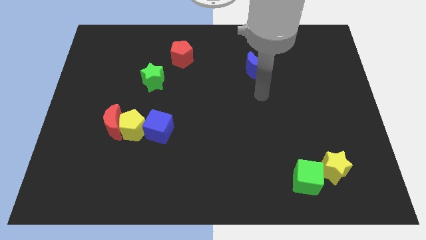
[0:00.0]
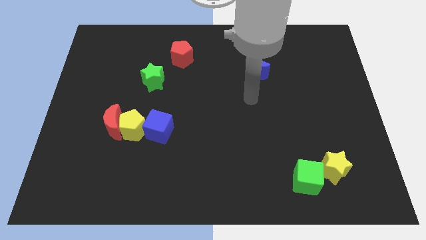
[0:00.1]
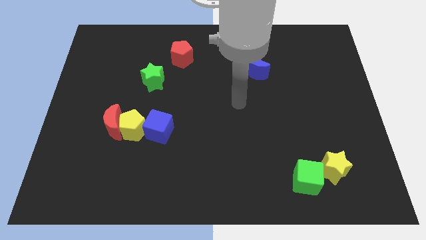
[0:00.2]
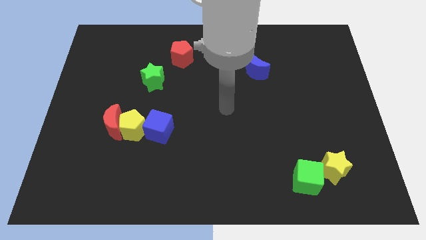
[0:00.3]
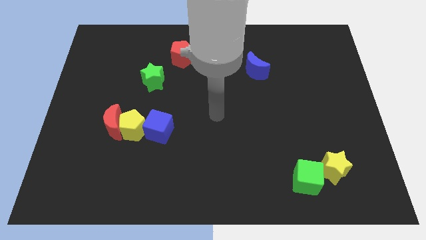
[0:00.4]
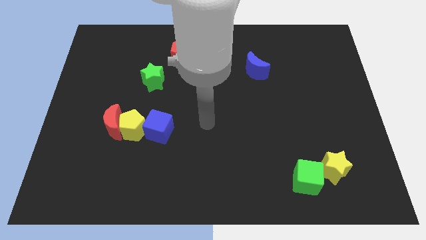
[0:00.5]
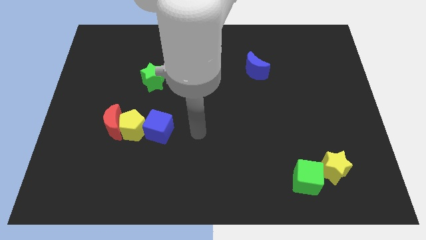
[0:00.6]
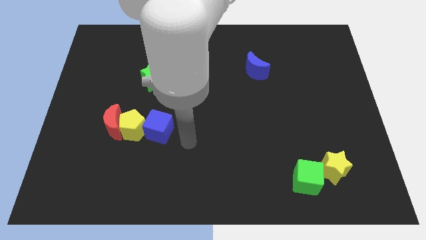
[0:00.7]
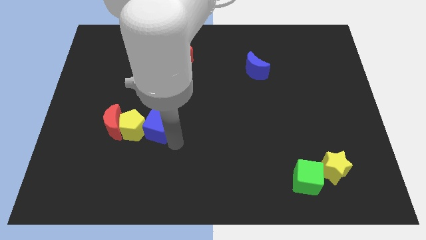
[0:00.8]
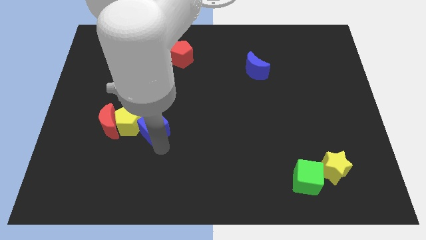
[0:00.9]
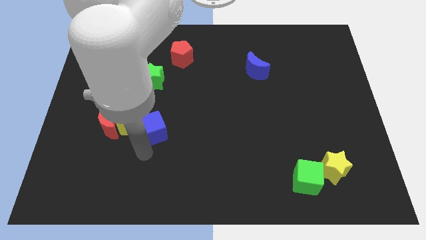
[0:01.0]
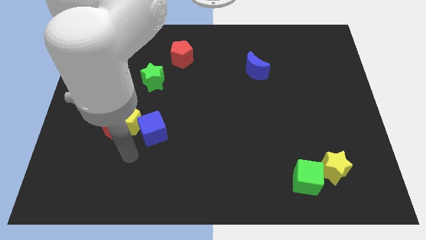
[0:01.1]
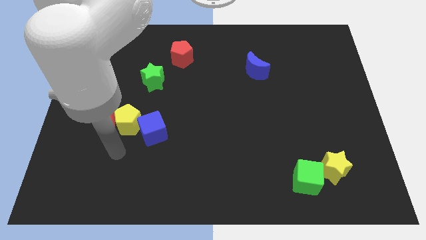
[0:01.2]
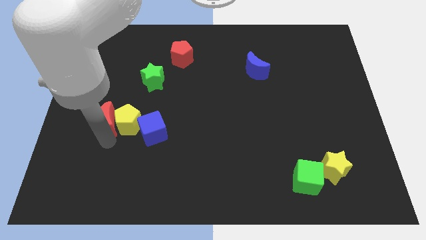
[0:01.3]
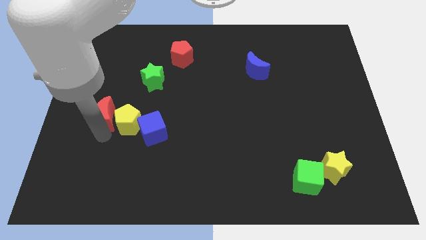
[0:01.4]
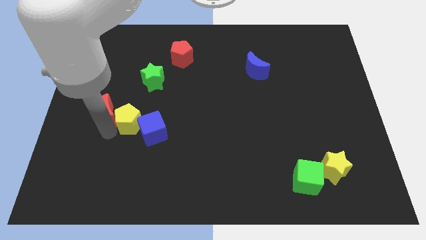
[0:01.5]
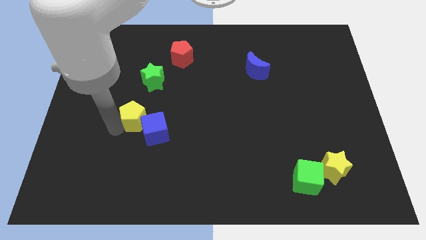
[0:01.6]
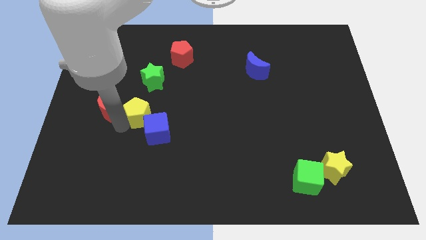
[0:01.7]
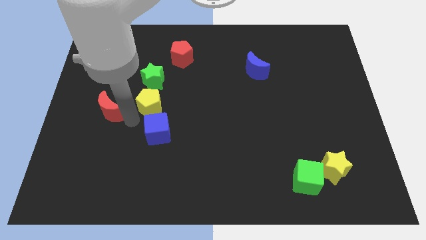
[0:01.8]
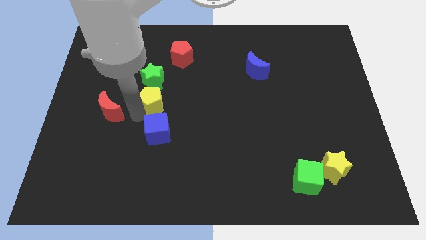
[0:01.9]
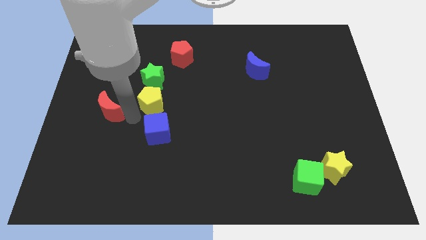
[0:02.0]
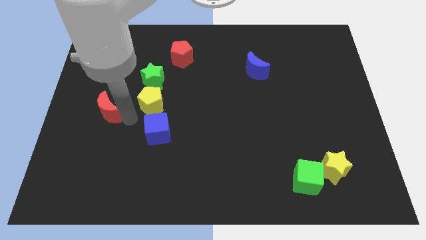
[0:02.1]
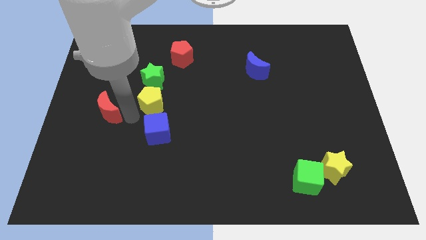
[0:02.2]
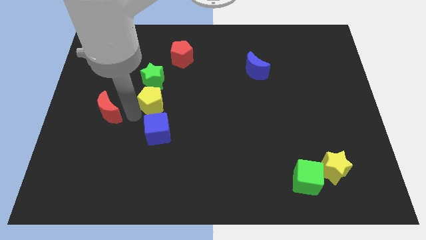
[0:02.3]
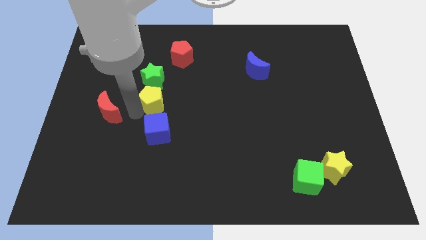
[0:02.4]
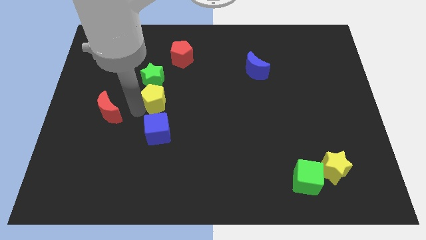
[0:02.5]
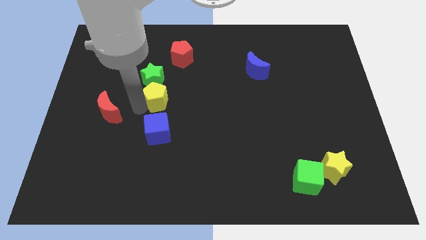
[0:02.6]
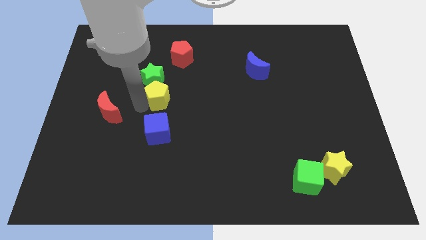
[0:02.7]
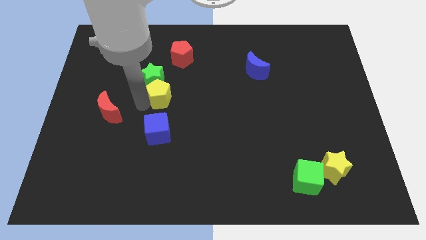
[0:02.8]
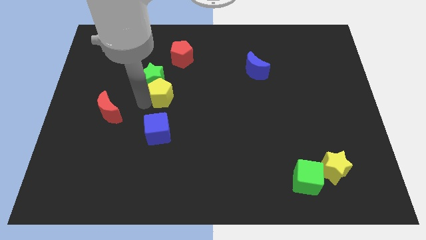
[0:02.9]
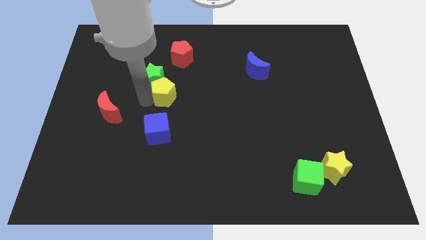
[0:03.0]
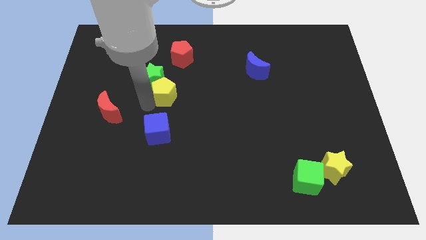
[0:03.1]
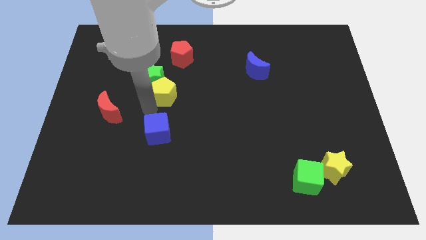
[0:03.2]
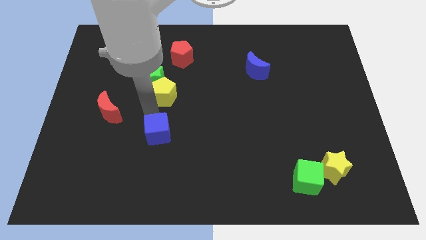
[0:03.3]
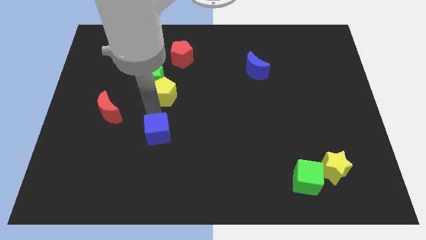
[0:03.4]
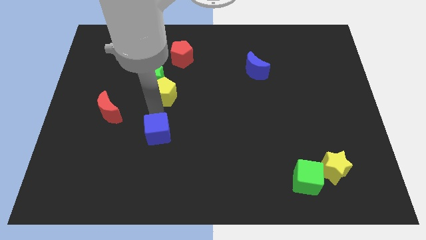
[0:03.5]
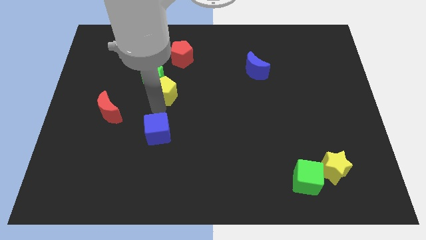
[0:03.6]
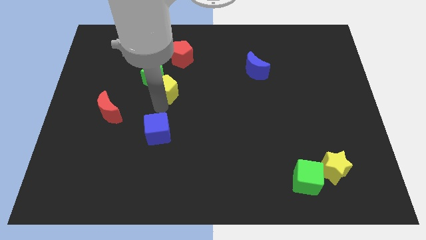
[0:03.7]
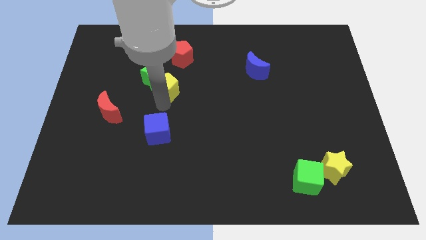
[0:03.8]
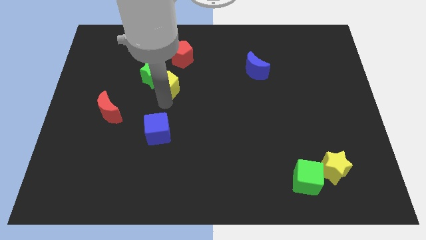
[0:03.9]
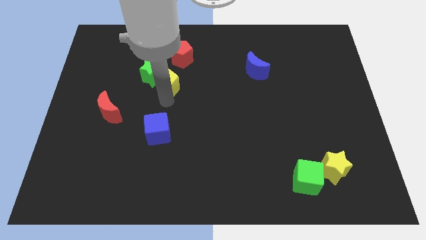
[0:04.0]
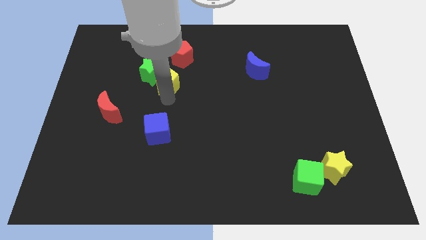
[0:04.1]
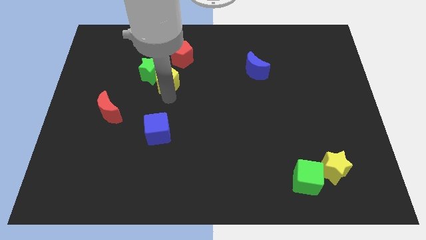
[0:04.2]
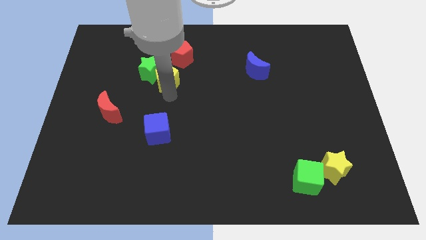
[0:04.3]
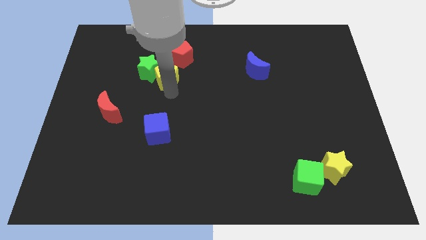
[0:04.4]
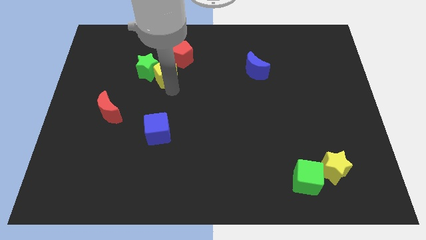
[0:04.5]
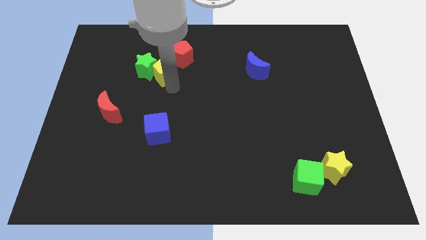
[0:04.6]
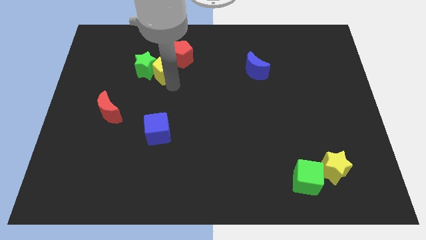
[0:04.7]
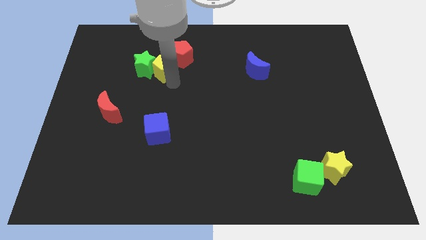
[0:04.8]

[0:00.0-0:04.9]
move the yellow pentagon to the red pentagon

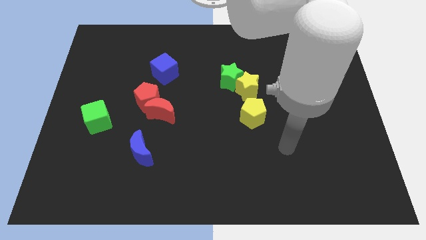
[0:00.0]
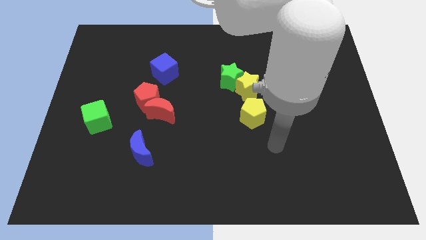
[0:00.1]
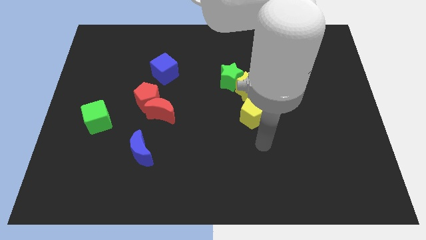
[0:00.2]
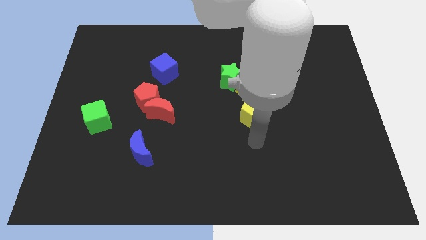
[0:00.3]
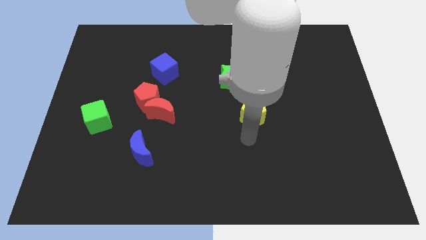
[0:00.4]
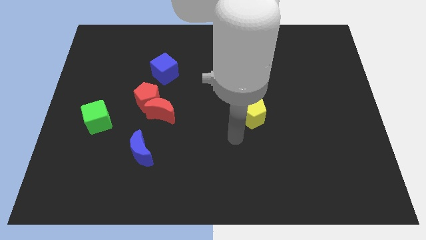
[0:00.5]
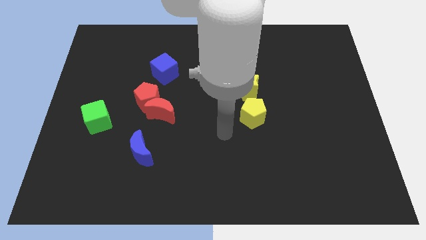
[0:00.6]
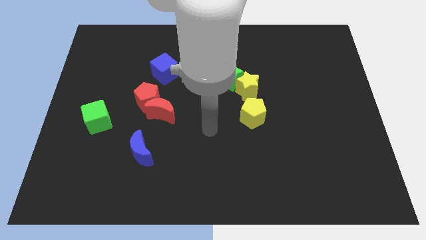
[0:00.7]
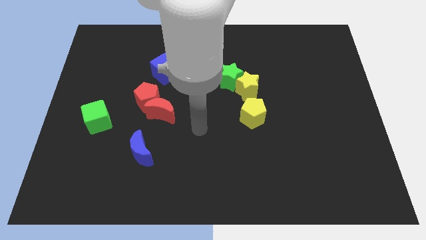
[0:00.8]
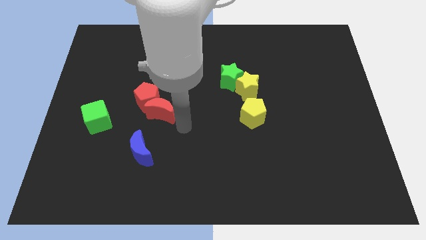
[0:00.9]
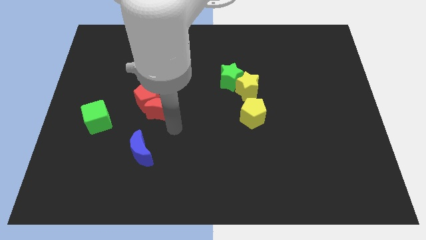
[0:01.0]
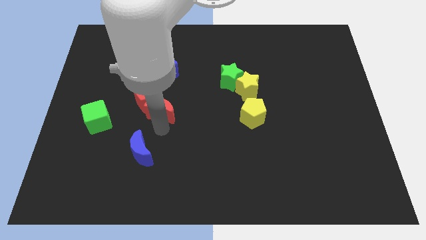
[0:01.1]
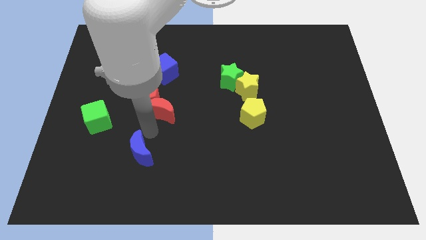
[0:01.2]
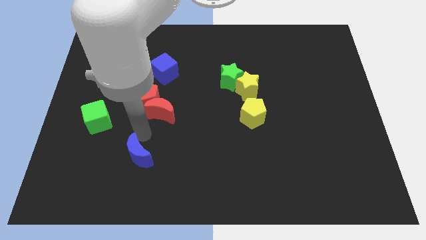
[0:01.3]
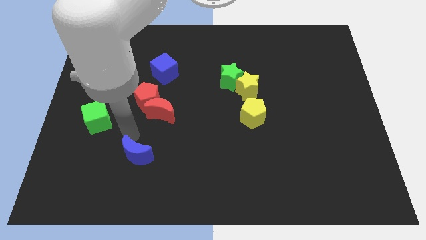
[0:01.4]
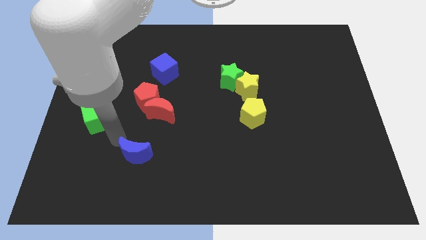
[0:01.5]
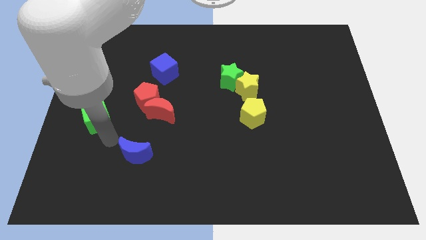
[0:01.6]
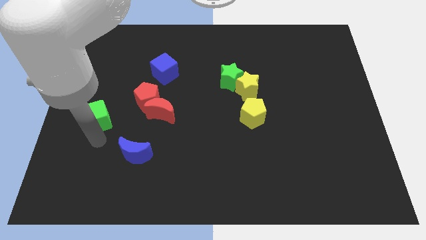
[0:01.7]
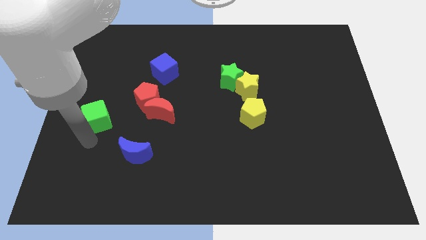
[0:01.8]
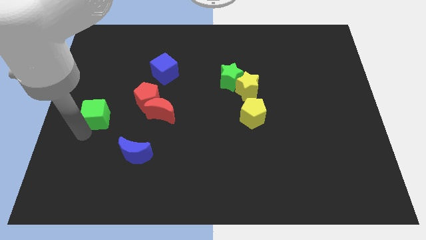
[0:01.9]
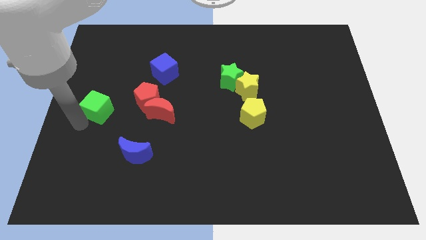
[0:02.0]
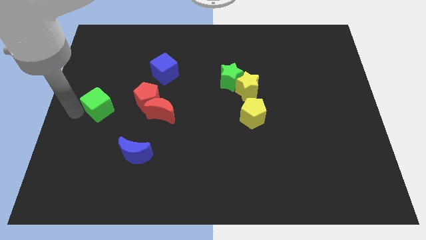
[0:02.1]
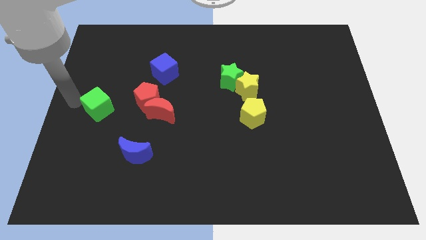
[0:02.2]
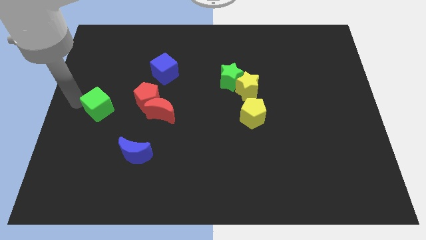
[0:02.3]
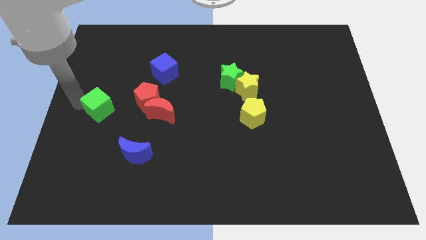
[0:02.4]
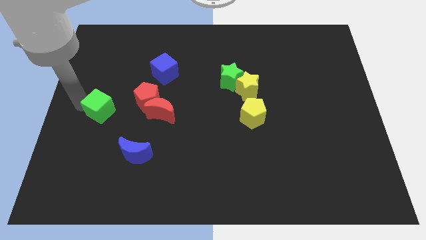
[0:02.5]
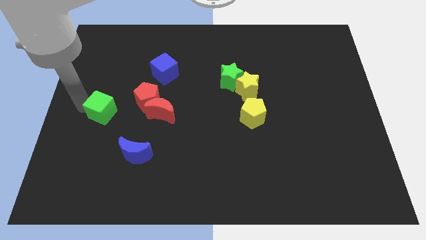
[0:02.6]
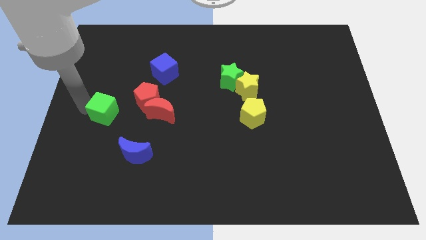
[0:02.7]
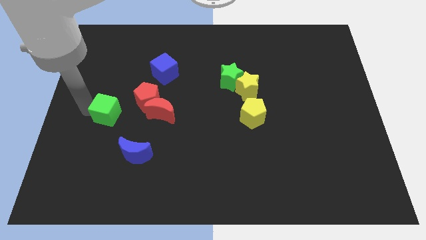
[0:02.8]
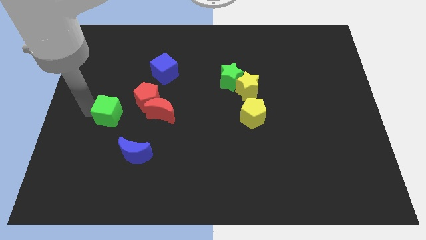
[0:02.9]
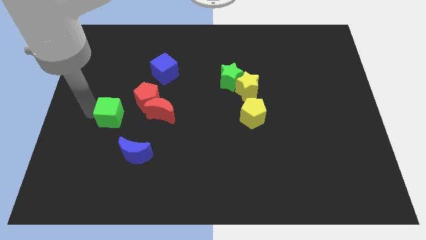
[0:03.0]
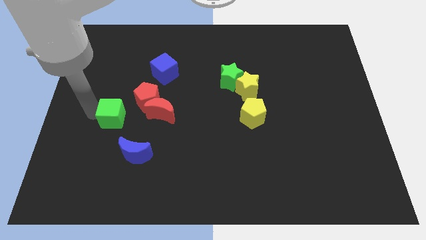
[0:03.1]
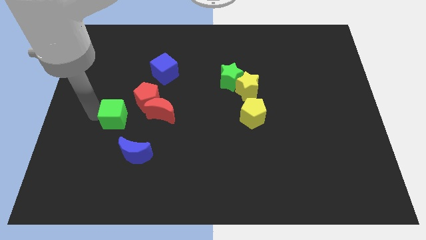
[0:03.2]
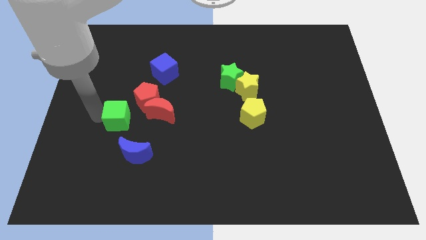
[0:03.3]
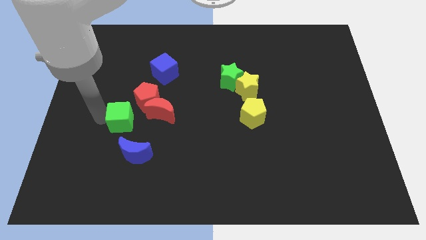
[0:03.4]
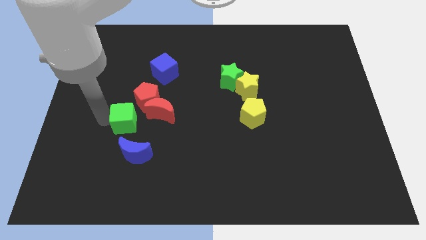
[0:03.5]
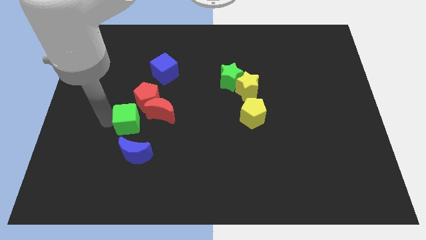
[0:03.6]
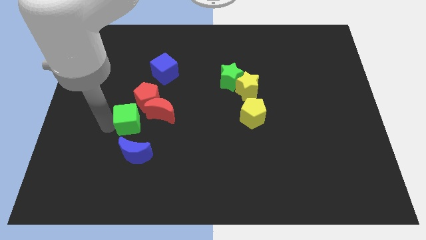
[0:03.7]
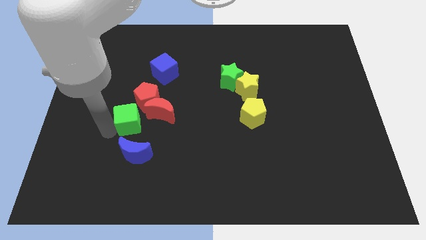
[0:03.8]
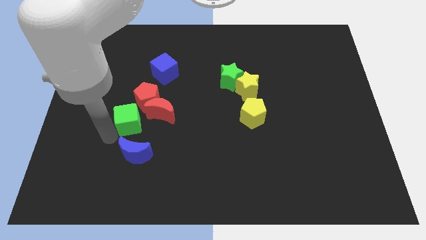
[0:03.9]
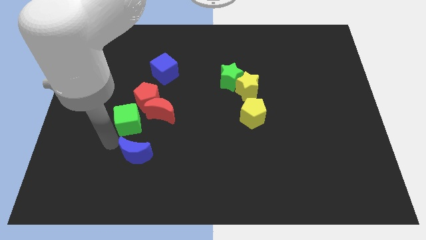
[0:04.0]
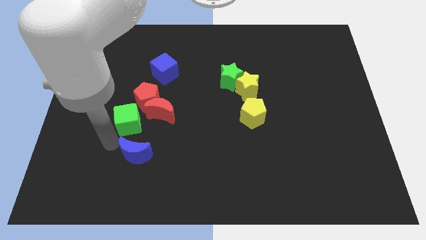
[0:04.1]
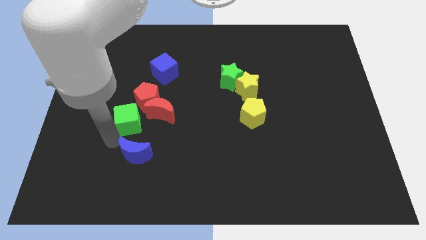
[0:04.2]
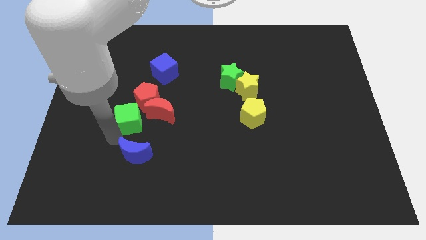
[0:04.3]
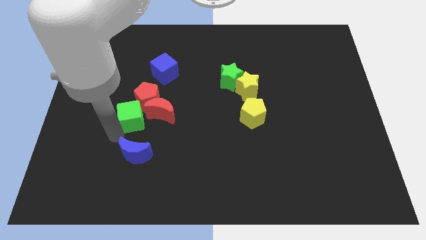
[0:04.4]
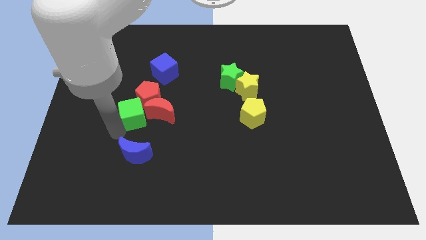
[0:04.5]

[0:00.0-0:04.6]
put the green cube towards the red pentagon
